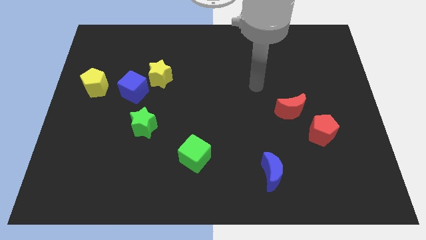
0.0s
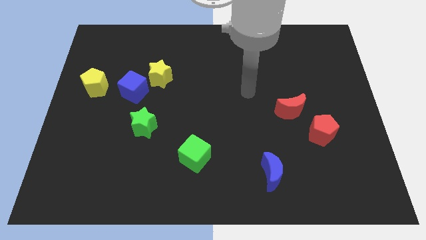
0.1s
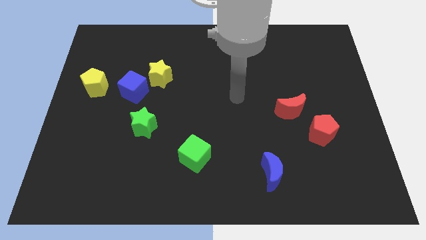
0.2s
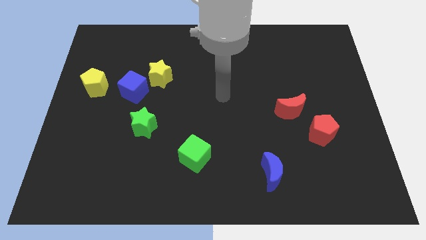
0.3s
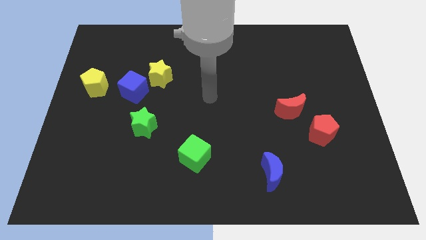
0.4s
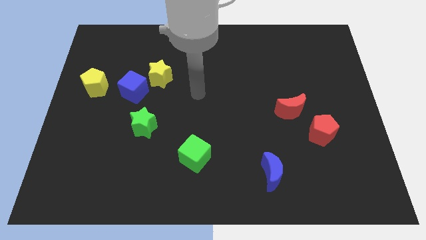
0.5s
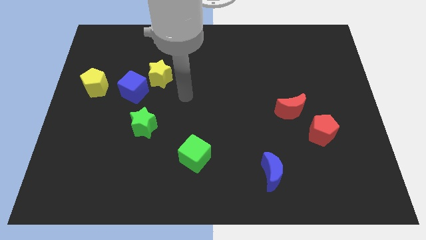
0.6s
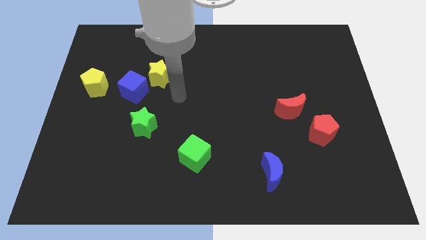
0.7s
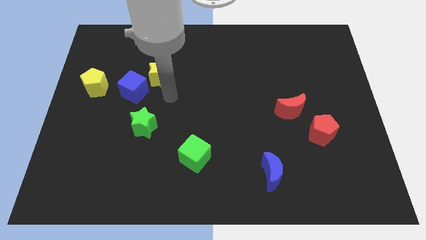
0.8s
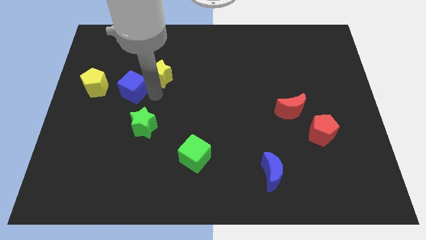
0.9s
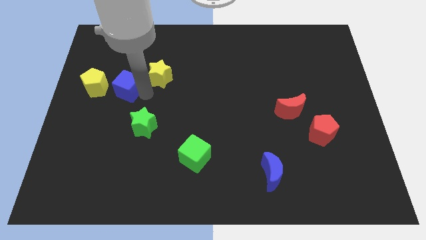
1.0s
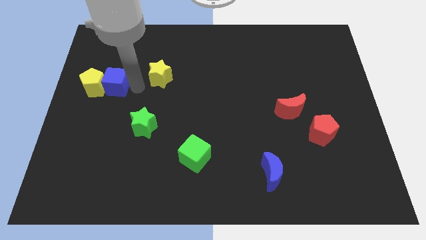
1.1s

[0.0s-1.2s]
move the yellow star away from the blue cube

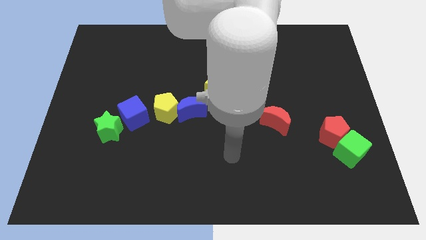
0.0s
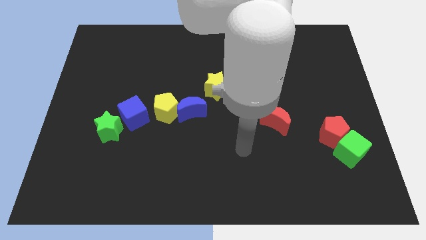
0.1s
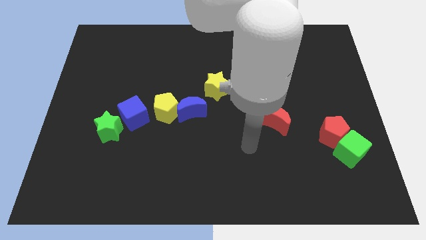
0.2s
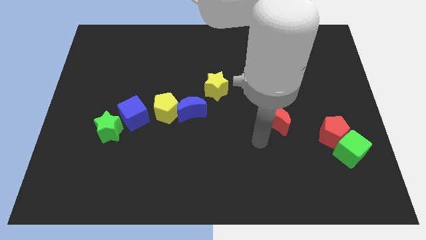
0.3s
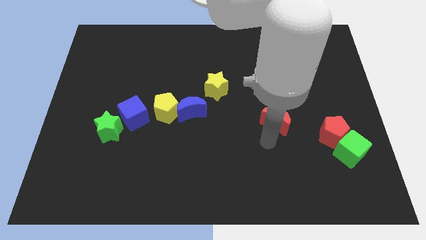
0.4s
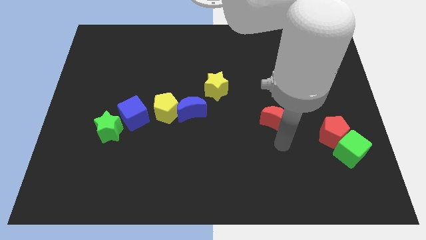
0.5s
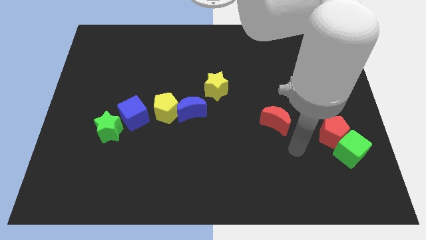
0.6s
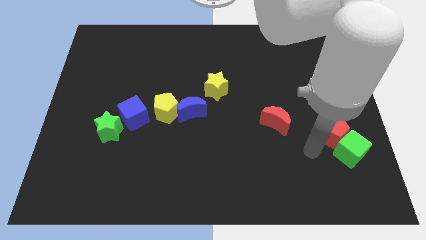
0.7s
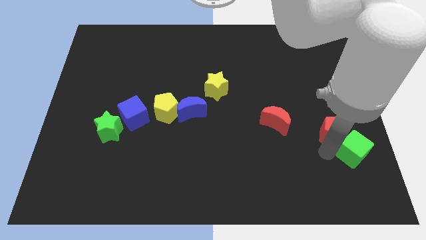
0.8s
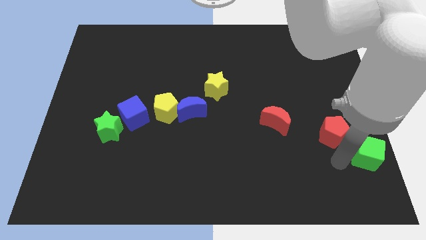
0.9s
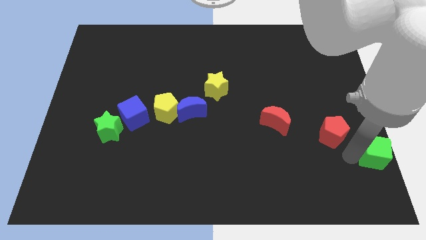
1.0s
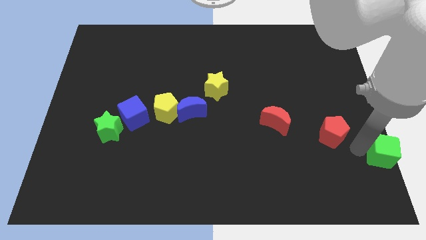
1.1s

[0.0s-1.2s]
move the red pentagon away from the green cube

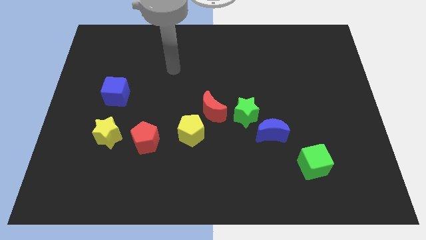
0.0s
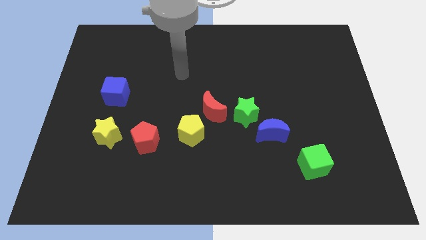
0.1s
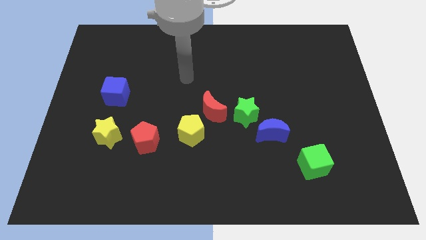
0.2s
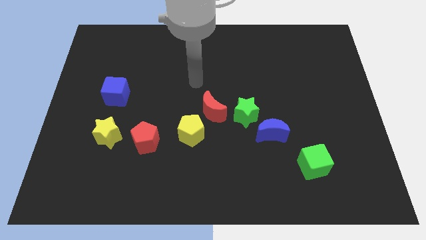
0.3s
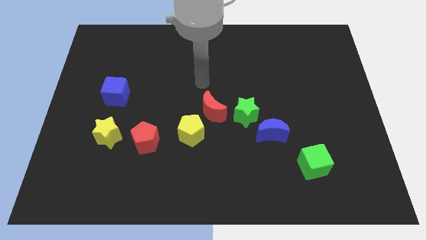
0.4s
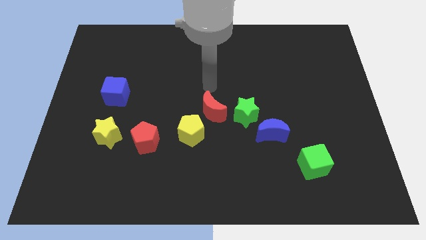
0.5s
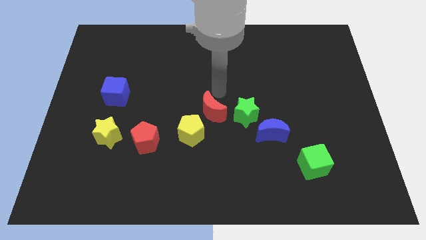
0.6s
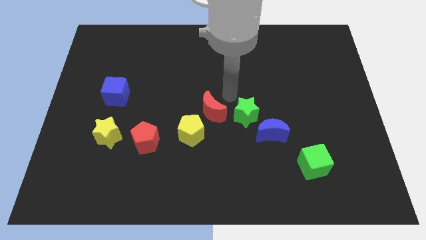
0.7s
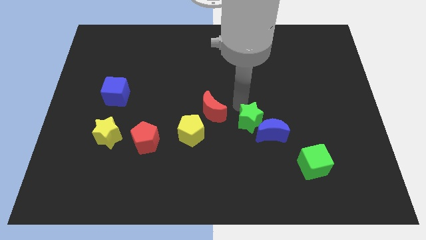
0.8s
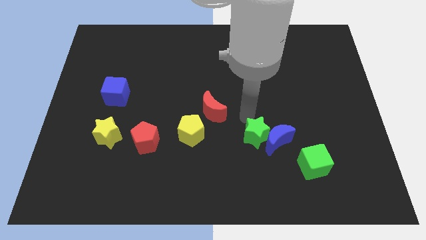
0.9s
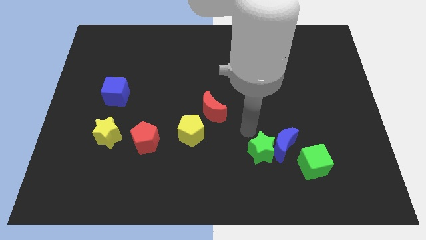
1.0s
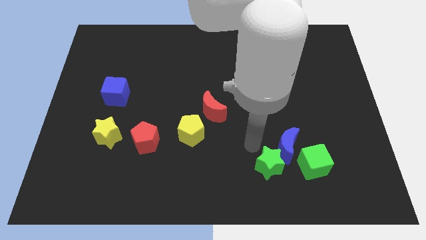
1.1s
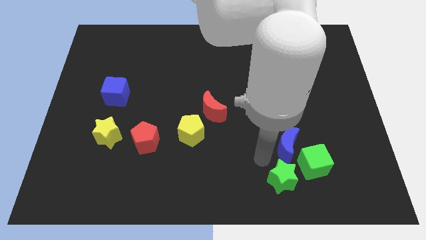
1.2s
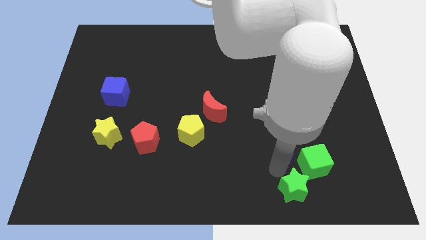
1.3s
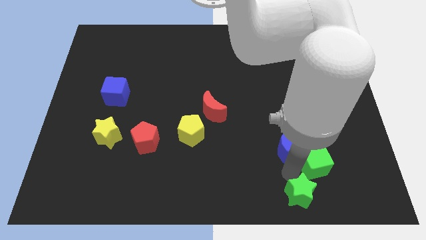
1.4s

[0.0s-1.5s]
pull the blue moon apart from the green star

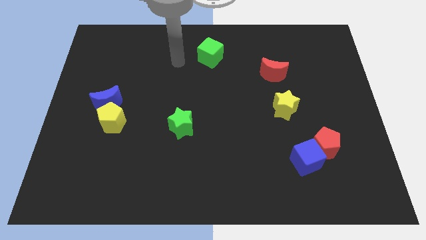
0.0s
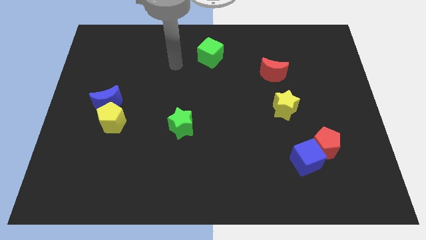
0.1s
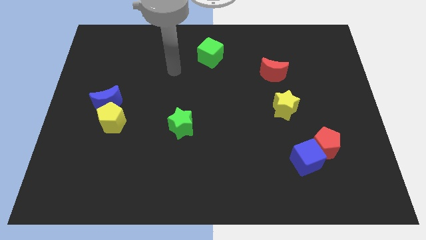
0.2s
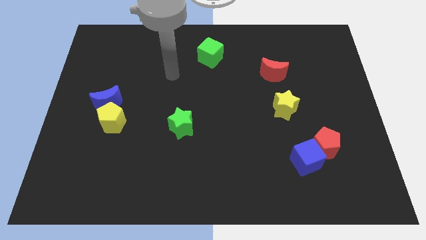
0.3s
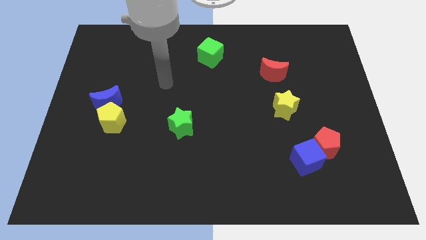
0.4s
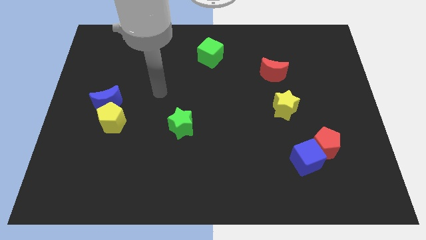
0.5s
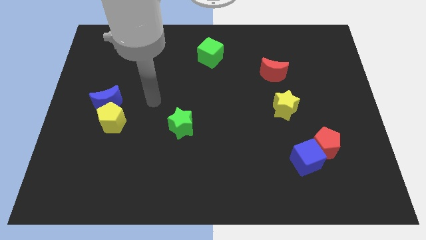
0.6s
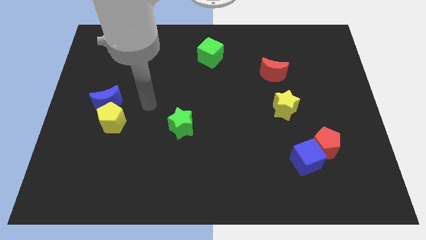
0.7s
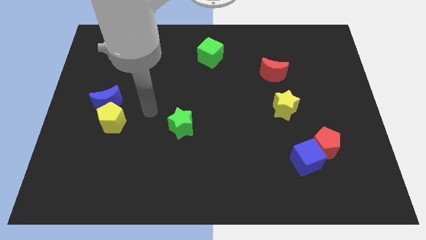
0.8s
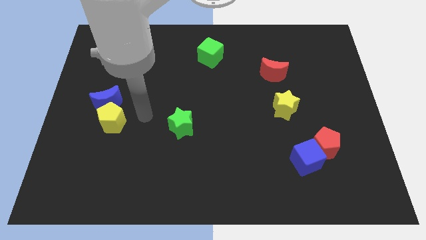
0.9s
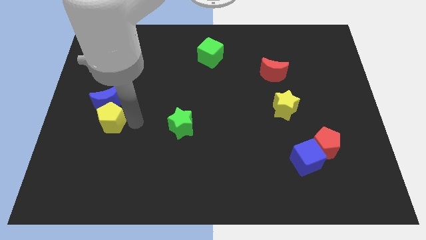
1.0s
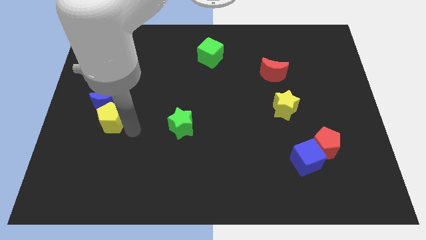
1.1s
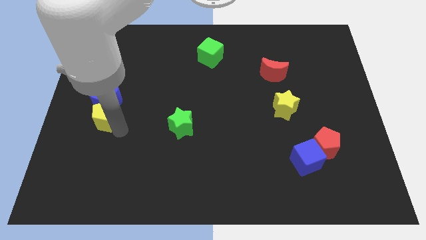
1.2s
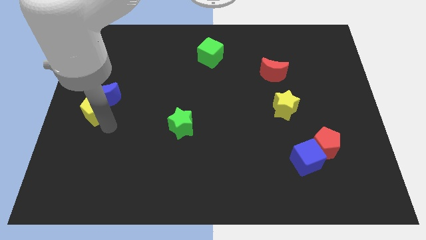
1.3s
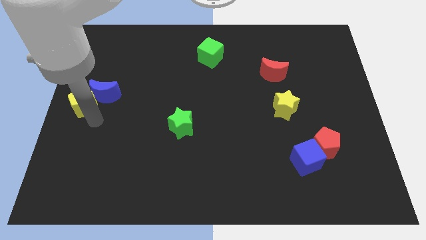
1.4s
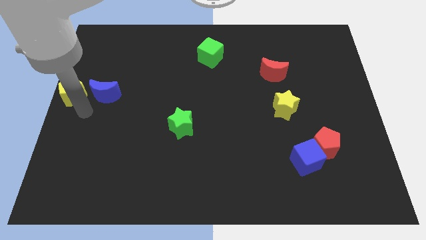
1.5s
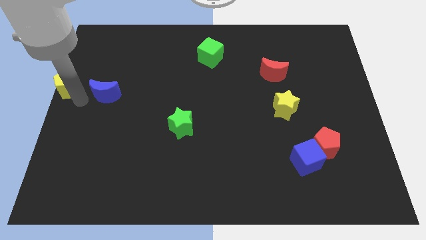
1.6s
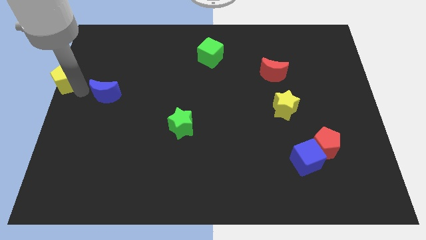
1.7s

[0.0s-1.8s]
pull the blue moon apart from the yellow pentagon

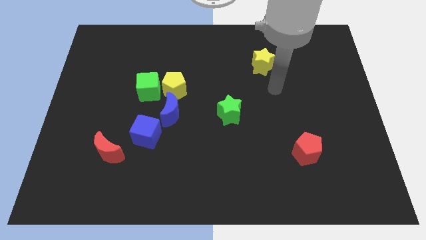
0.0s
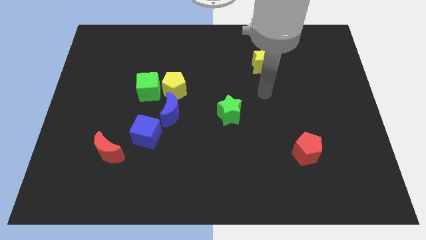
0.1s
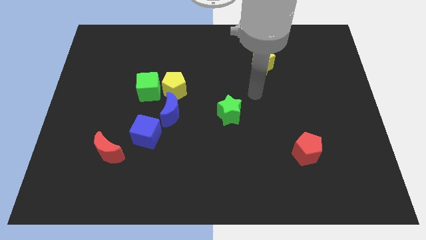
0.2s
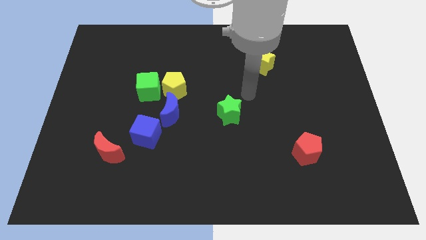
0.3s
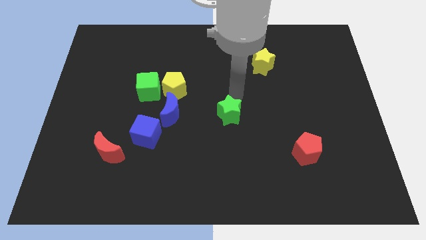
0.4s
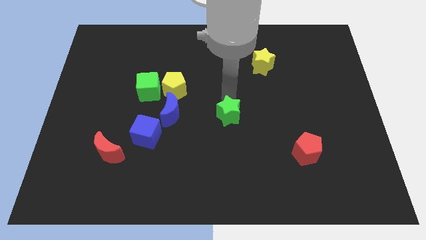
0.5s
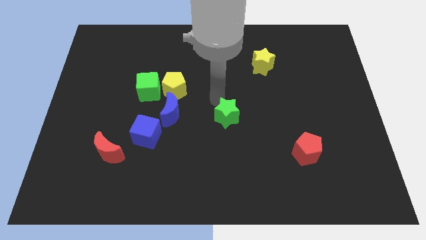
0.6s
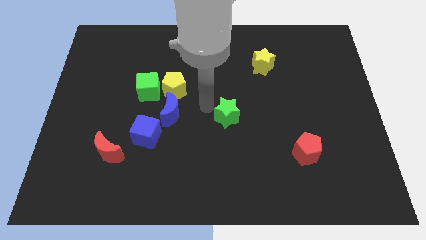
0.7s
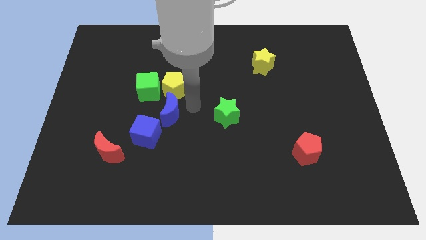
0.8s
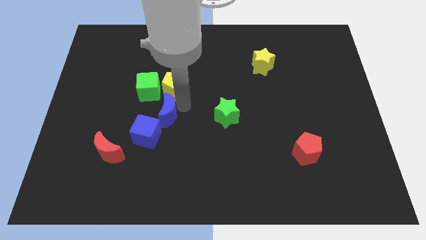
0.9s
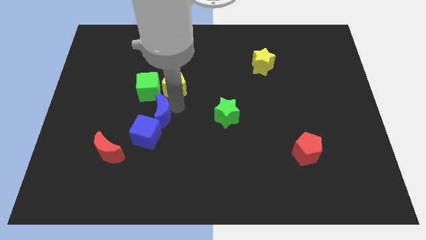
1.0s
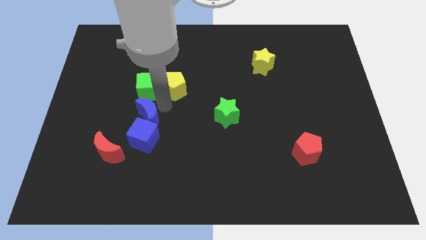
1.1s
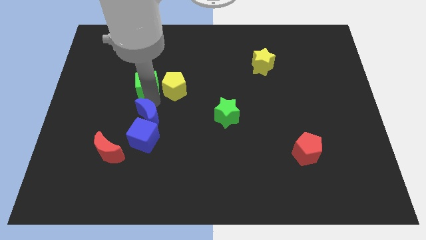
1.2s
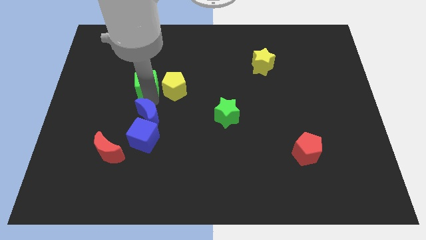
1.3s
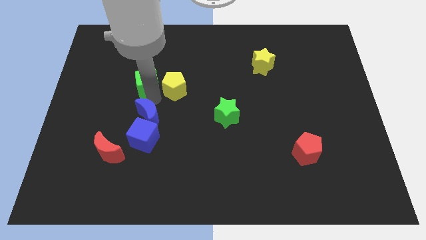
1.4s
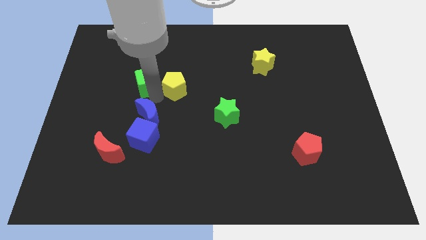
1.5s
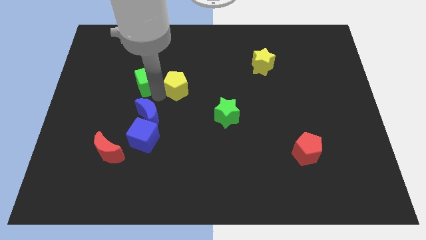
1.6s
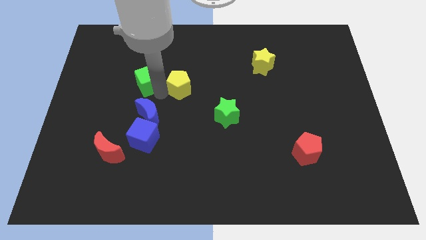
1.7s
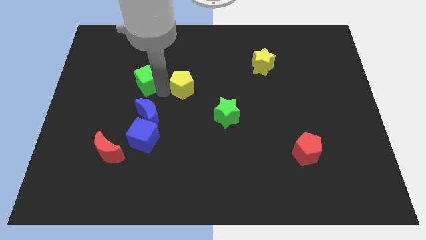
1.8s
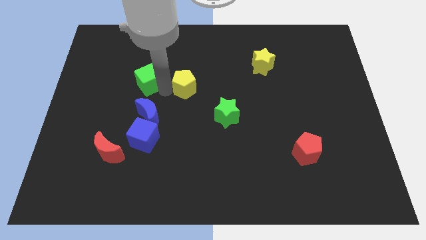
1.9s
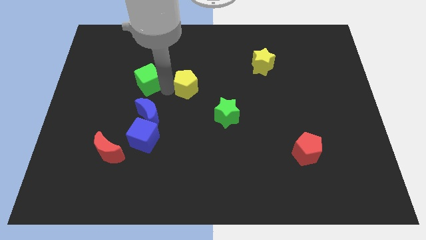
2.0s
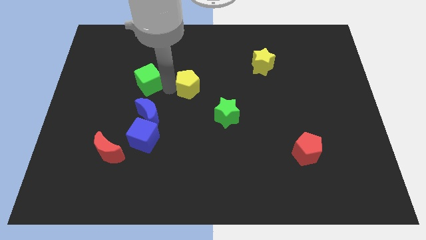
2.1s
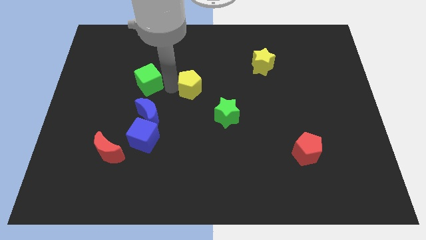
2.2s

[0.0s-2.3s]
separate the yellow pentagon from the green cube and blue moon

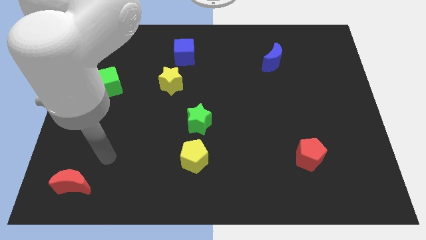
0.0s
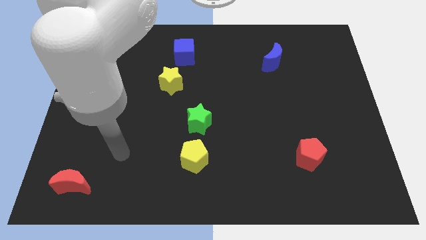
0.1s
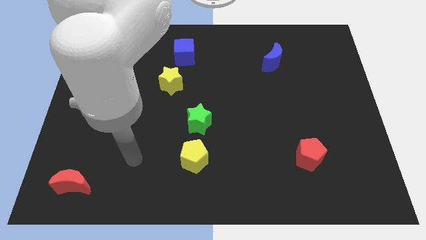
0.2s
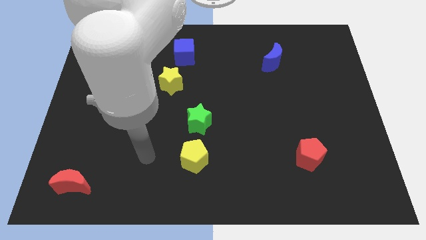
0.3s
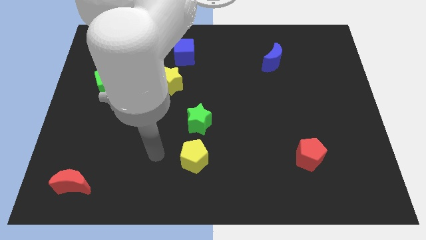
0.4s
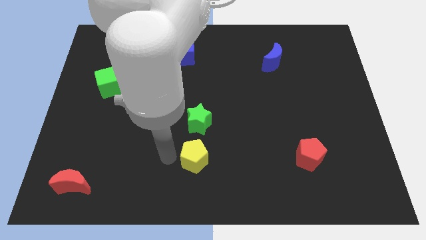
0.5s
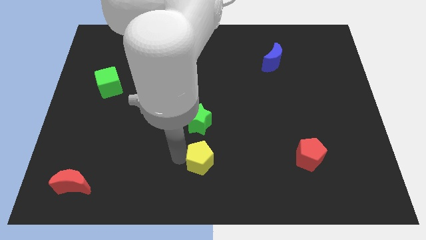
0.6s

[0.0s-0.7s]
pull the green star apart from the yellow pentagon

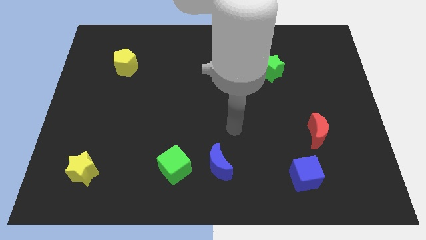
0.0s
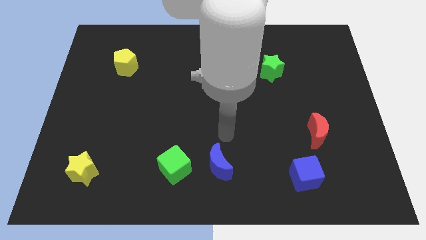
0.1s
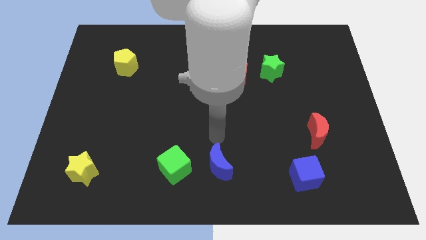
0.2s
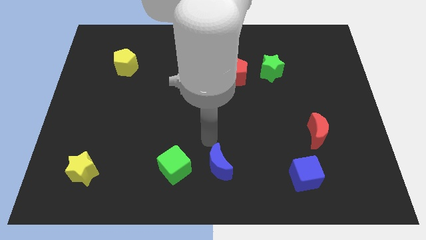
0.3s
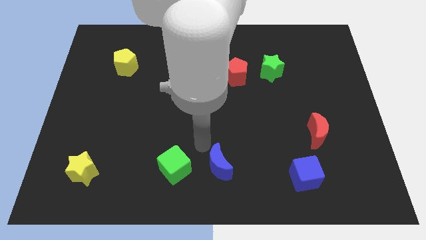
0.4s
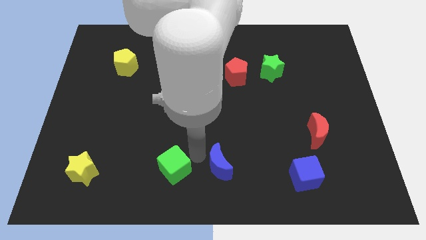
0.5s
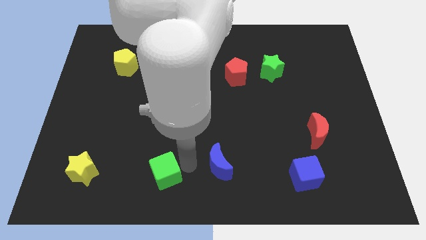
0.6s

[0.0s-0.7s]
separate the blue moon from the green cube

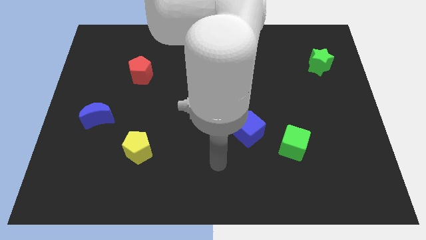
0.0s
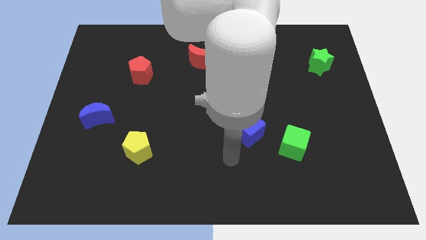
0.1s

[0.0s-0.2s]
pull the blue cube apart from the green cube
